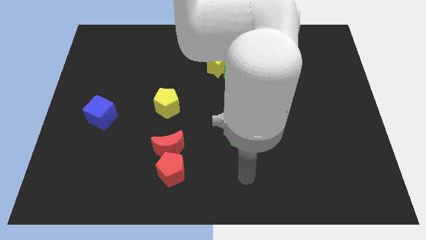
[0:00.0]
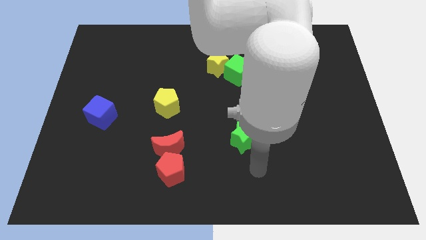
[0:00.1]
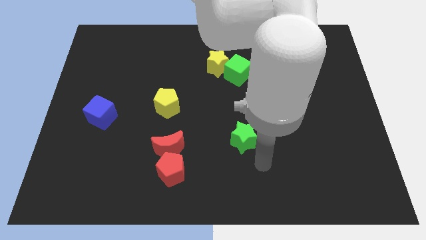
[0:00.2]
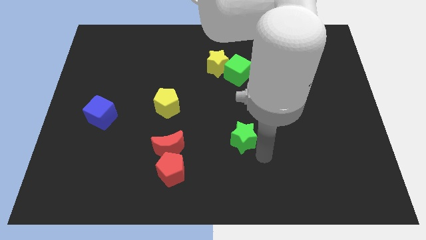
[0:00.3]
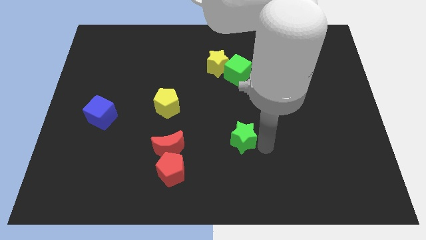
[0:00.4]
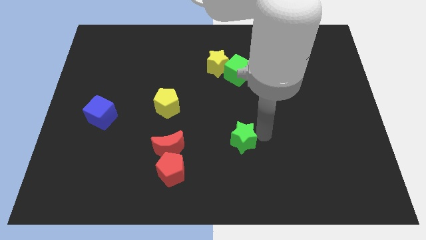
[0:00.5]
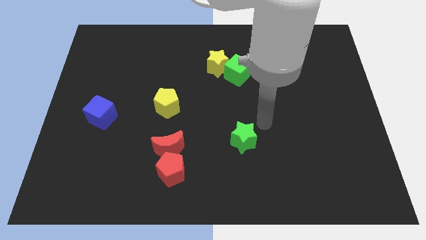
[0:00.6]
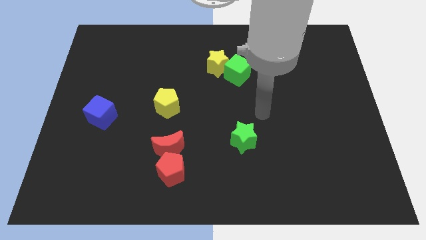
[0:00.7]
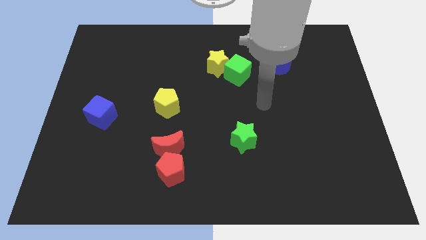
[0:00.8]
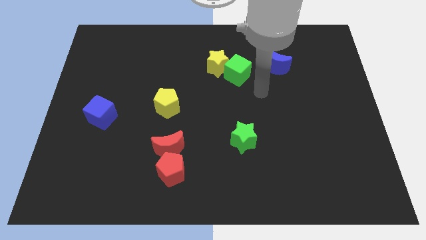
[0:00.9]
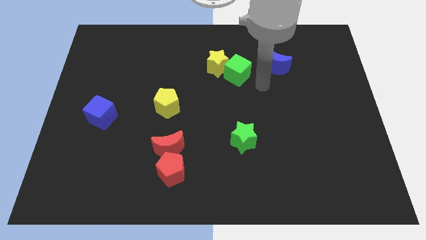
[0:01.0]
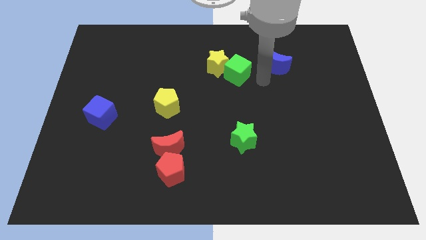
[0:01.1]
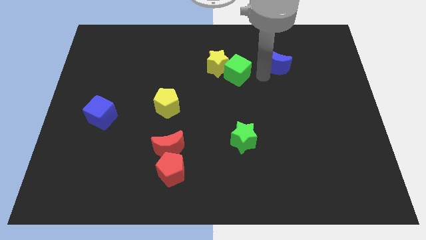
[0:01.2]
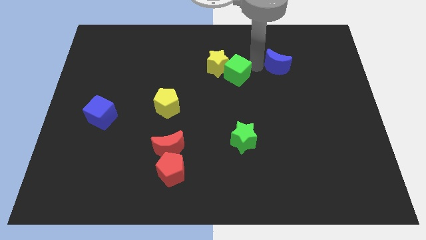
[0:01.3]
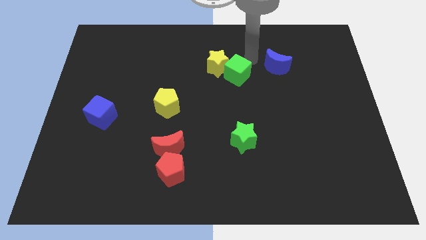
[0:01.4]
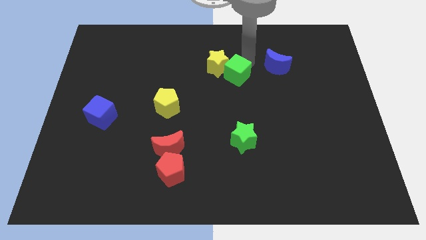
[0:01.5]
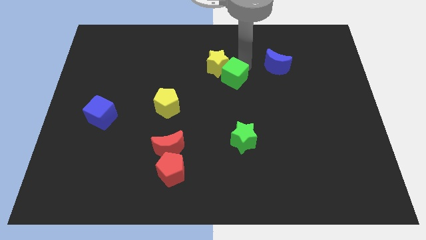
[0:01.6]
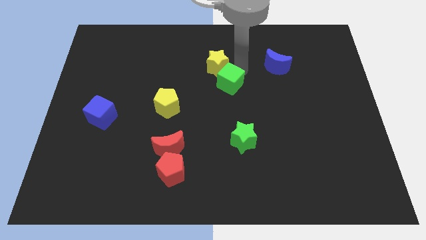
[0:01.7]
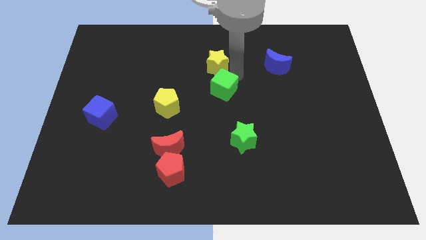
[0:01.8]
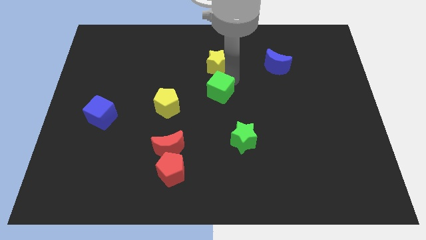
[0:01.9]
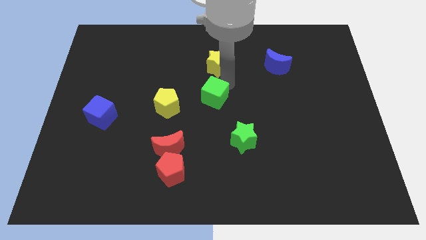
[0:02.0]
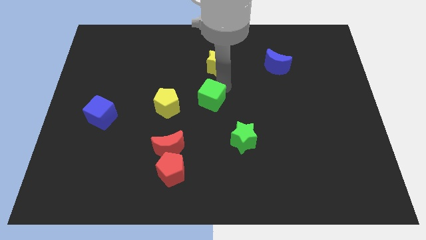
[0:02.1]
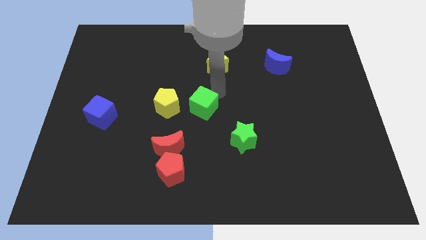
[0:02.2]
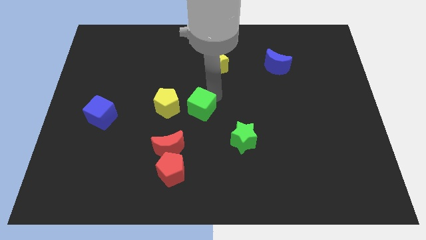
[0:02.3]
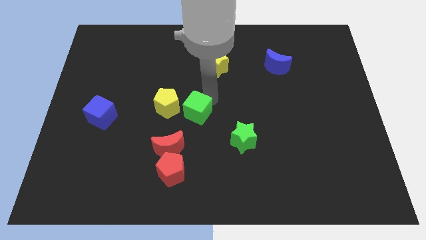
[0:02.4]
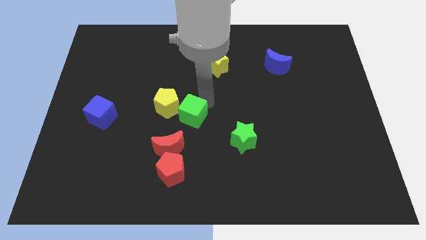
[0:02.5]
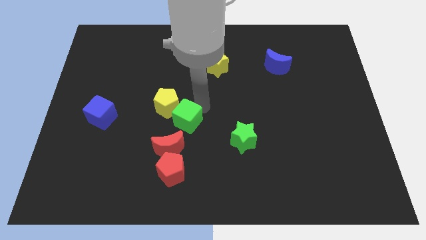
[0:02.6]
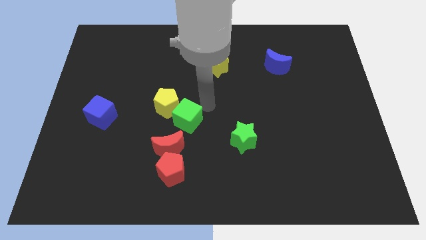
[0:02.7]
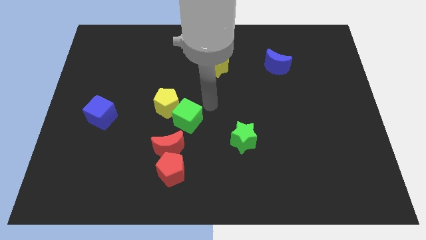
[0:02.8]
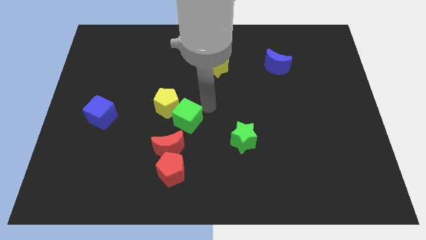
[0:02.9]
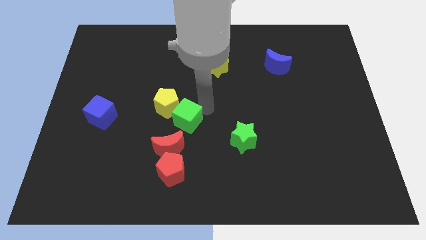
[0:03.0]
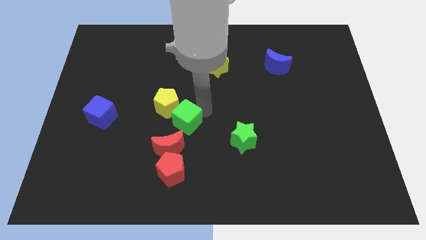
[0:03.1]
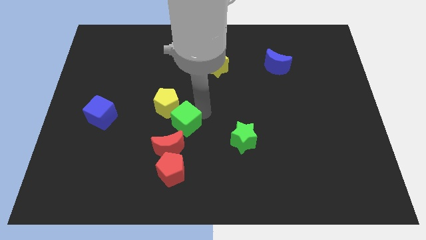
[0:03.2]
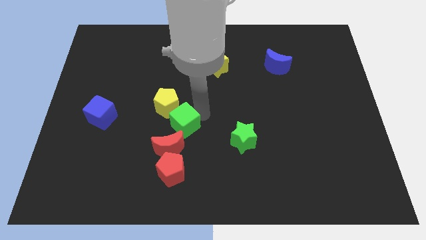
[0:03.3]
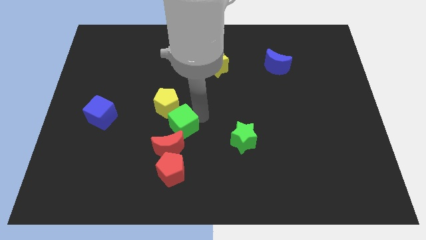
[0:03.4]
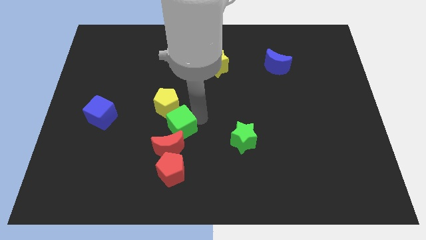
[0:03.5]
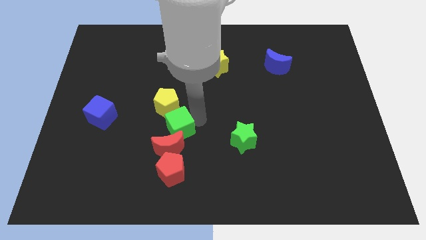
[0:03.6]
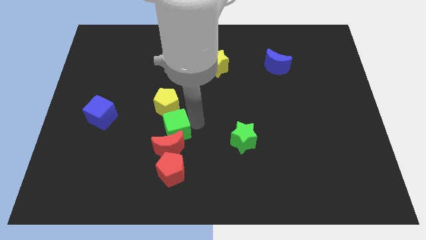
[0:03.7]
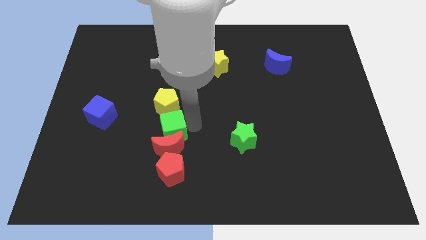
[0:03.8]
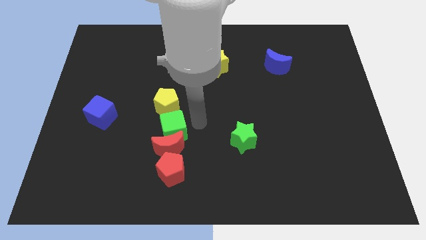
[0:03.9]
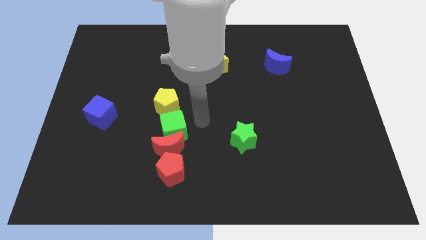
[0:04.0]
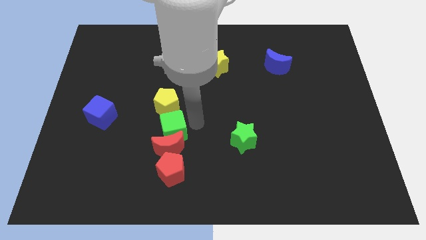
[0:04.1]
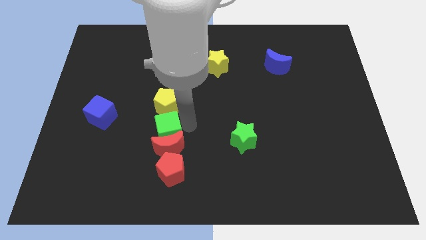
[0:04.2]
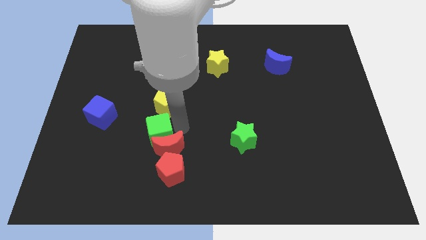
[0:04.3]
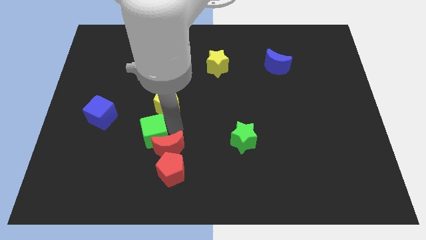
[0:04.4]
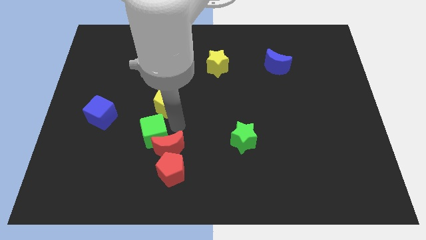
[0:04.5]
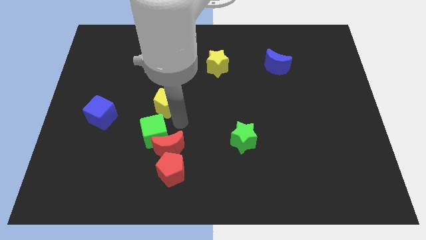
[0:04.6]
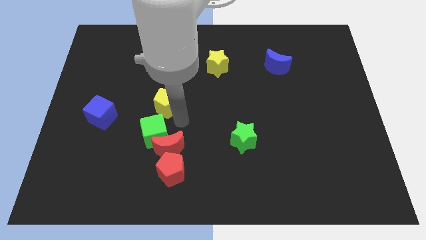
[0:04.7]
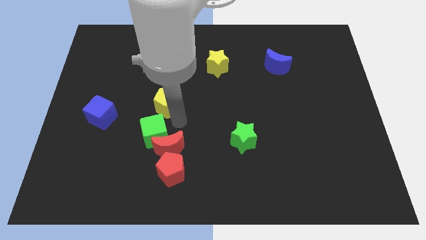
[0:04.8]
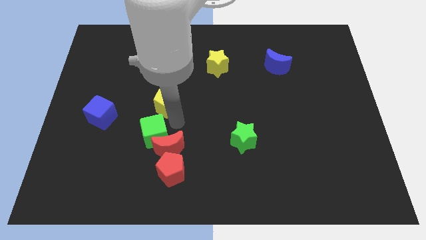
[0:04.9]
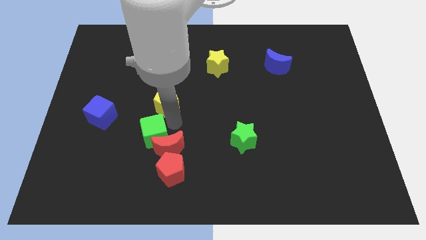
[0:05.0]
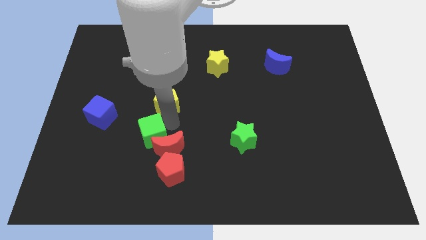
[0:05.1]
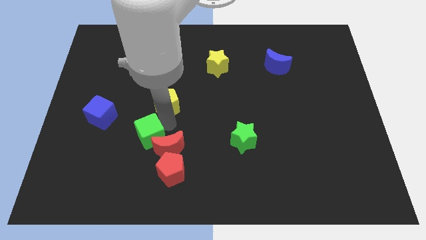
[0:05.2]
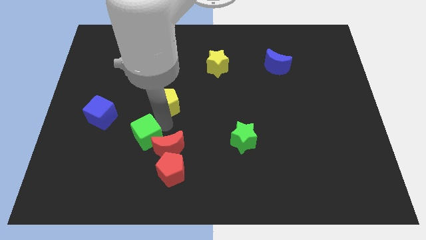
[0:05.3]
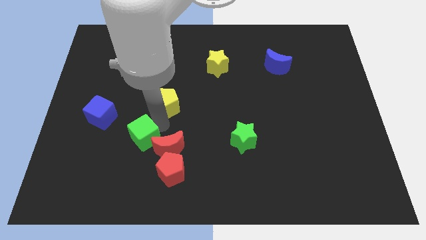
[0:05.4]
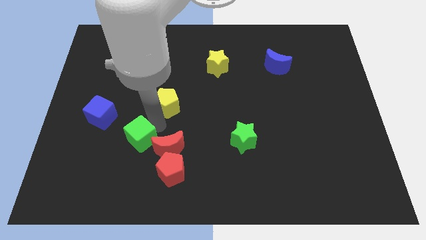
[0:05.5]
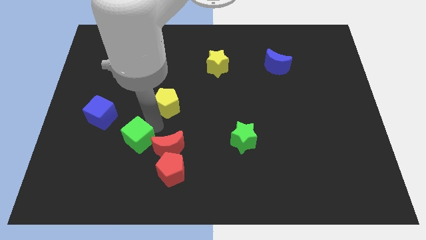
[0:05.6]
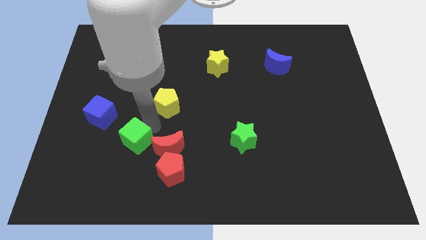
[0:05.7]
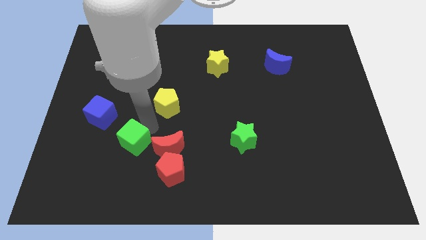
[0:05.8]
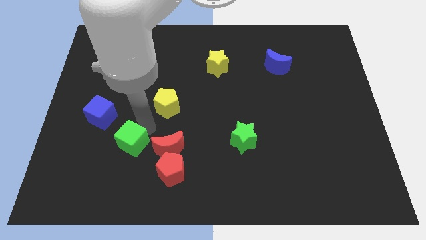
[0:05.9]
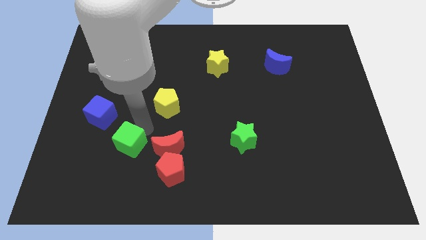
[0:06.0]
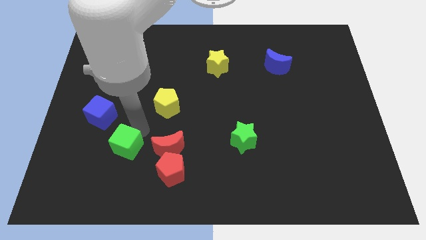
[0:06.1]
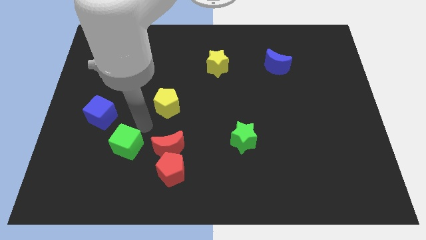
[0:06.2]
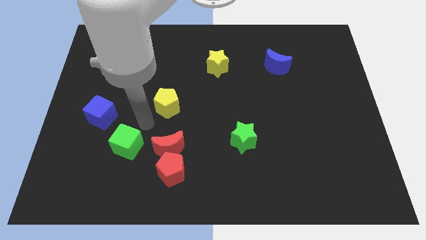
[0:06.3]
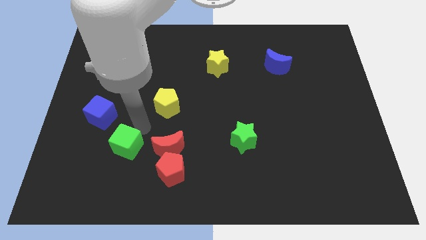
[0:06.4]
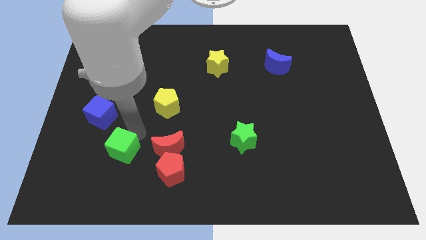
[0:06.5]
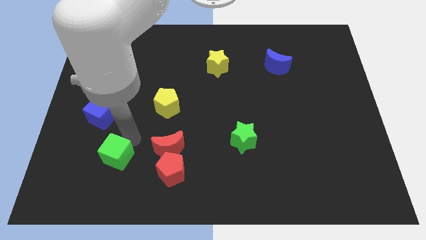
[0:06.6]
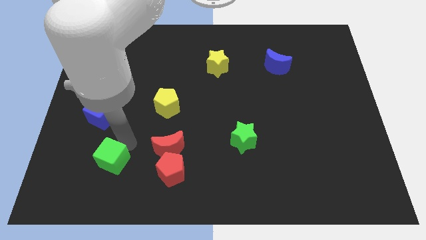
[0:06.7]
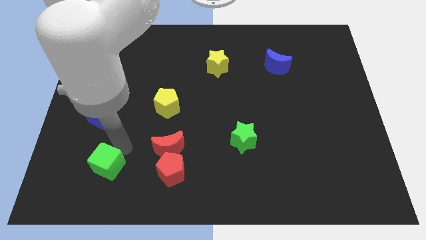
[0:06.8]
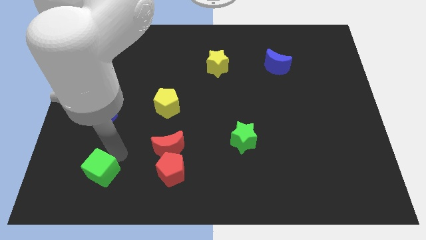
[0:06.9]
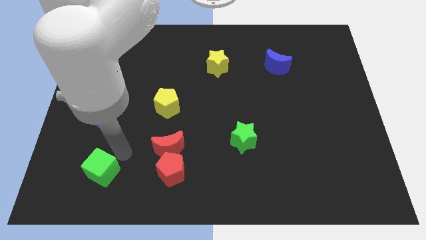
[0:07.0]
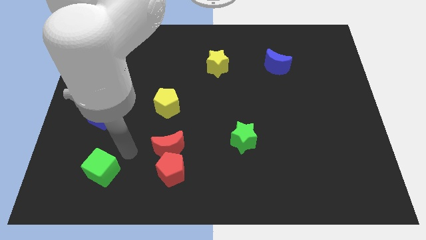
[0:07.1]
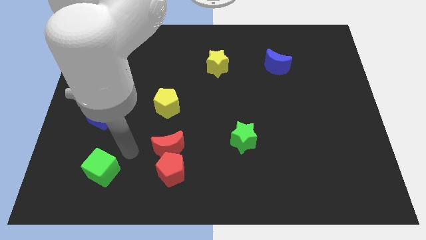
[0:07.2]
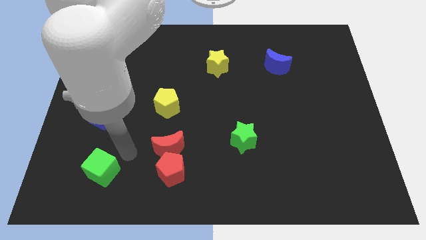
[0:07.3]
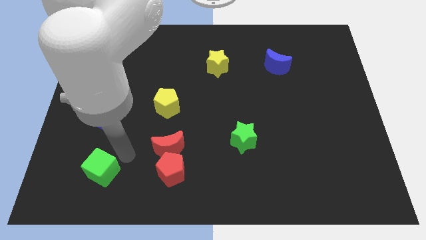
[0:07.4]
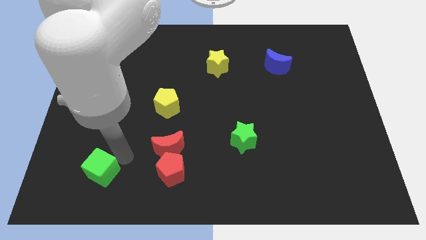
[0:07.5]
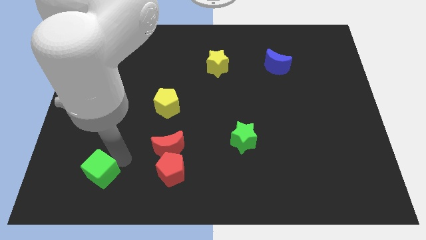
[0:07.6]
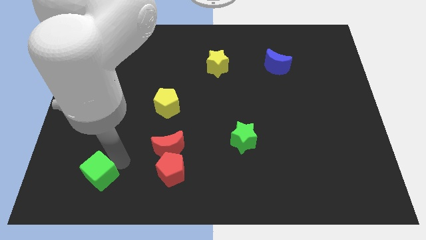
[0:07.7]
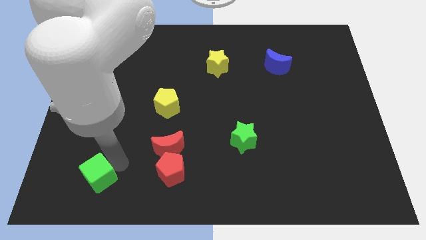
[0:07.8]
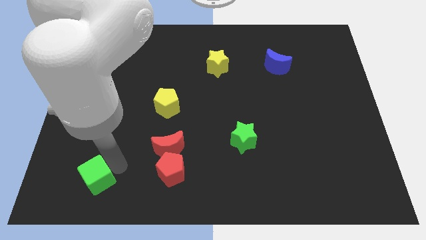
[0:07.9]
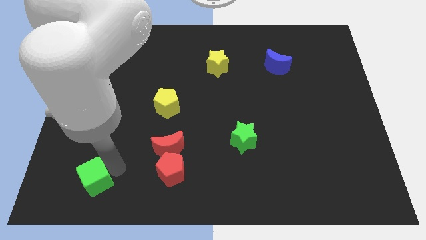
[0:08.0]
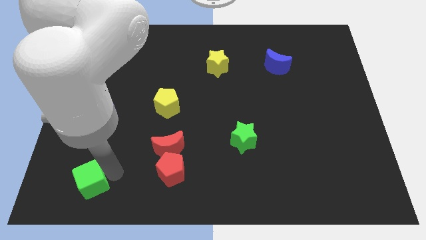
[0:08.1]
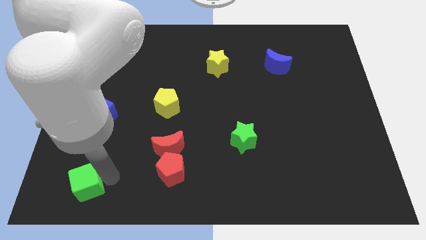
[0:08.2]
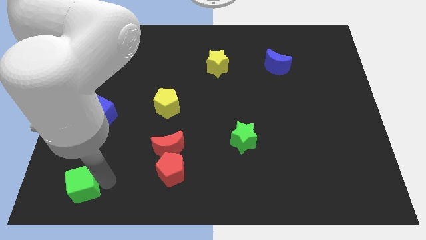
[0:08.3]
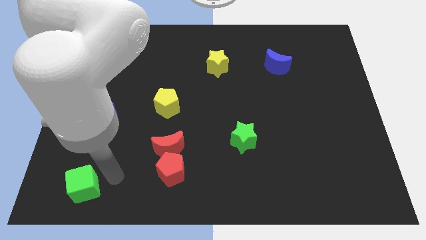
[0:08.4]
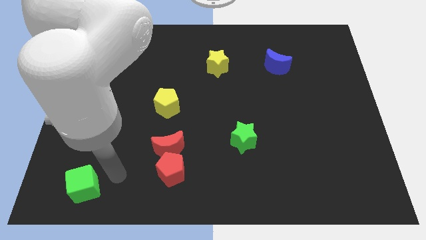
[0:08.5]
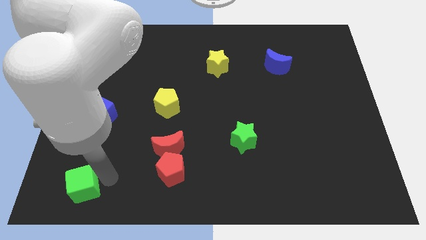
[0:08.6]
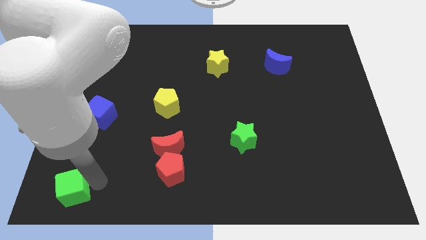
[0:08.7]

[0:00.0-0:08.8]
push the green cube to the bottom left
